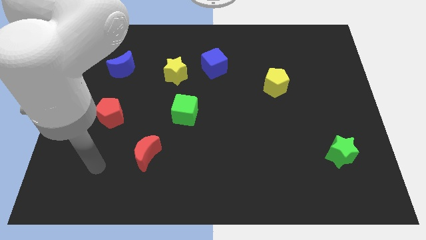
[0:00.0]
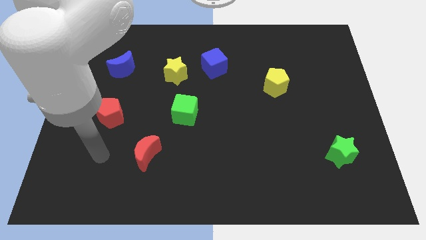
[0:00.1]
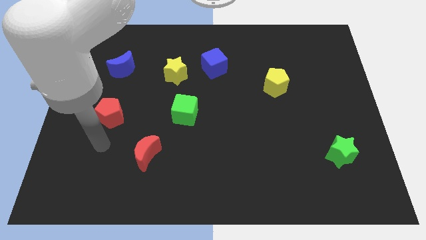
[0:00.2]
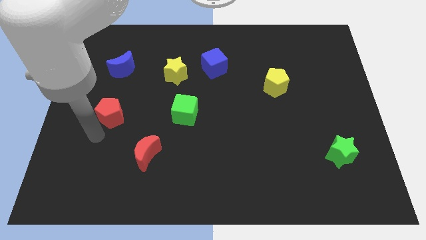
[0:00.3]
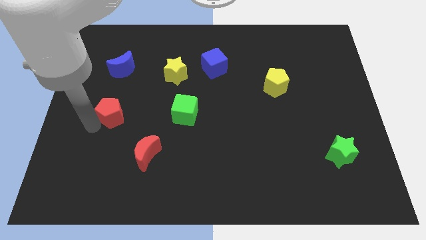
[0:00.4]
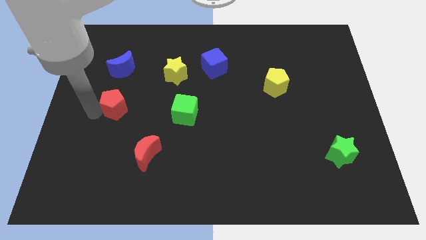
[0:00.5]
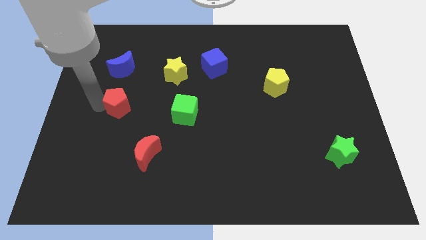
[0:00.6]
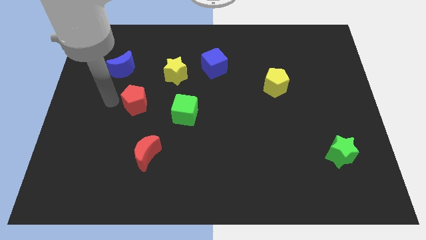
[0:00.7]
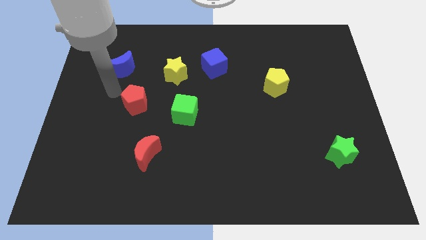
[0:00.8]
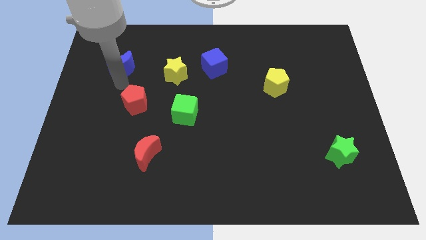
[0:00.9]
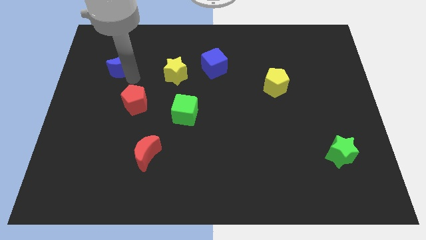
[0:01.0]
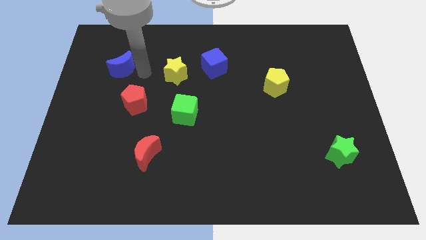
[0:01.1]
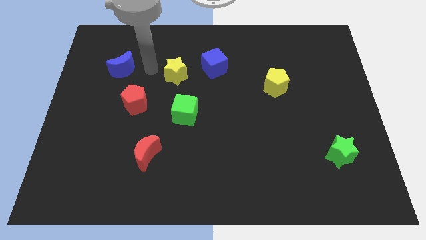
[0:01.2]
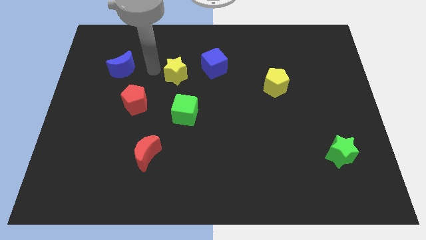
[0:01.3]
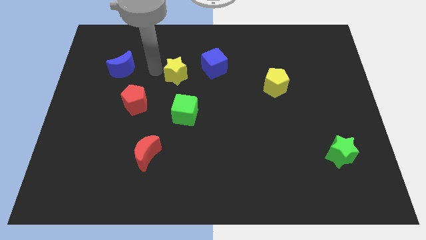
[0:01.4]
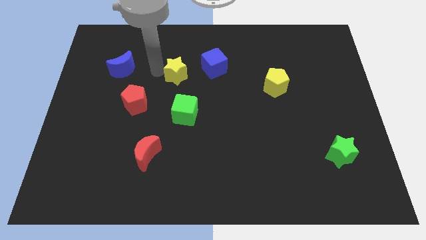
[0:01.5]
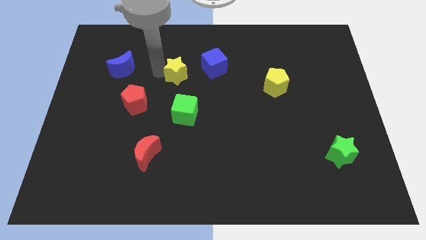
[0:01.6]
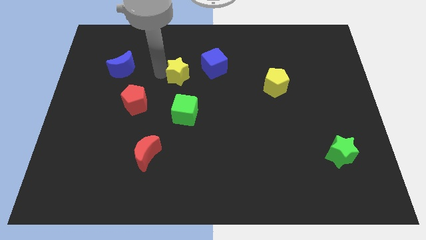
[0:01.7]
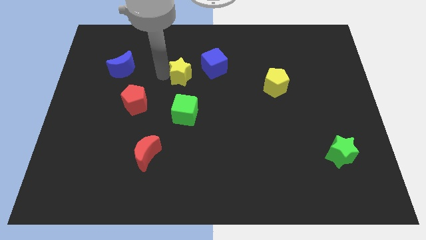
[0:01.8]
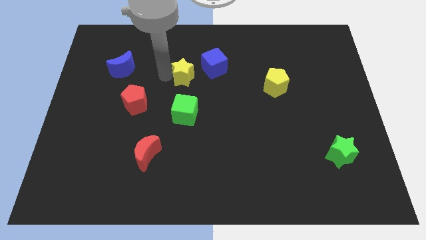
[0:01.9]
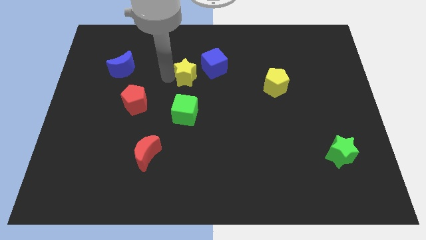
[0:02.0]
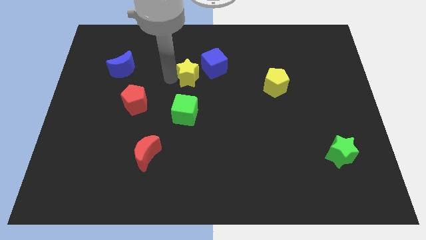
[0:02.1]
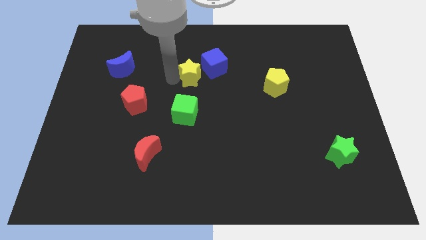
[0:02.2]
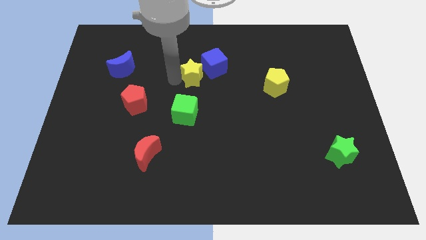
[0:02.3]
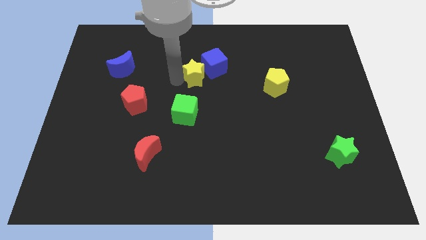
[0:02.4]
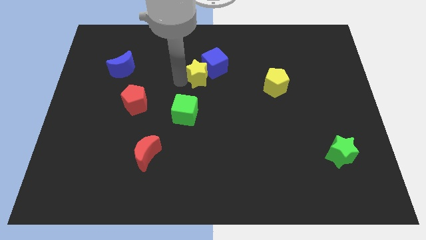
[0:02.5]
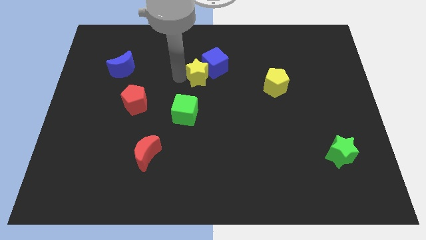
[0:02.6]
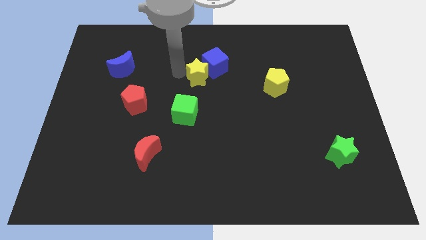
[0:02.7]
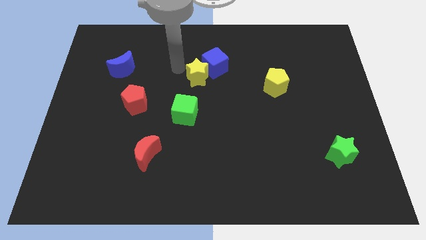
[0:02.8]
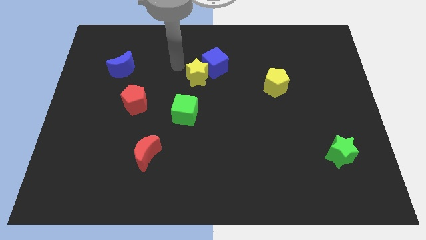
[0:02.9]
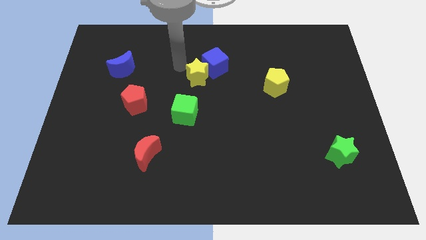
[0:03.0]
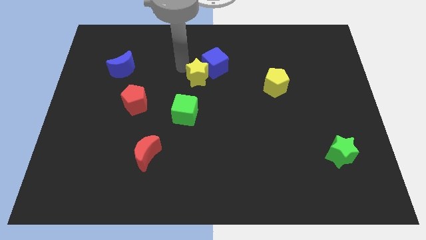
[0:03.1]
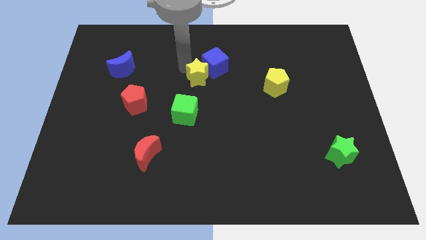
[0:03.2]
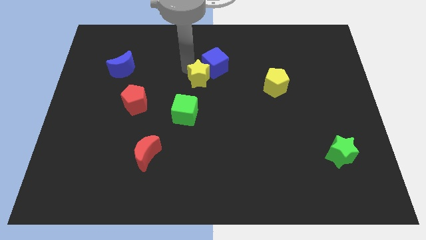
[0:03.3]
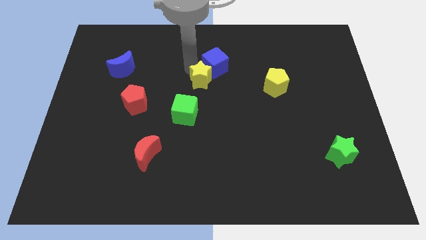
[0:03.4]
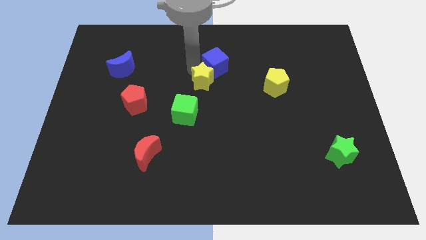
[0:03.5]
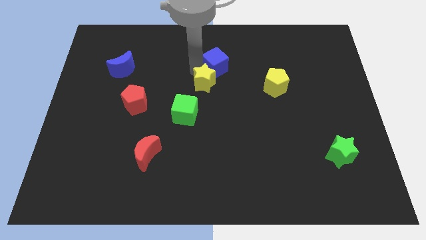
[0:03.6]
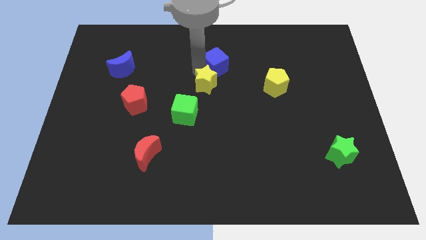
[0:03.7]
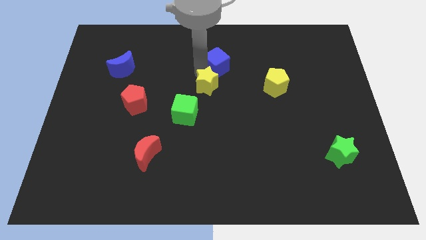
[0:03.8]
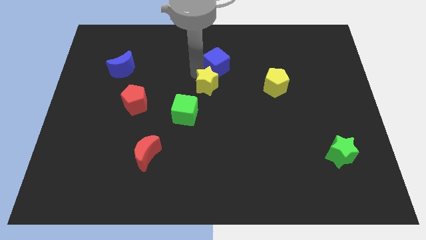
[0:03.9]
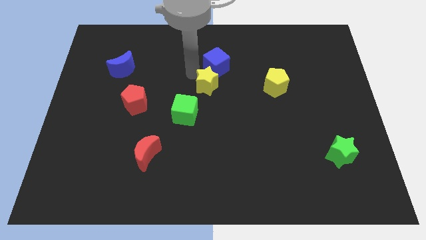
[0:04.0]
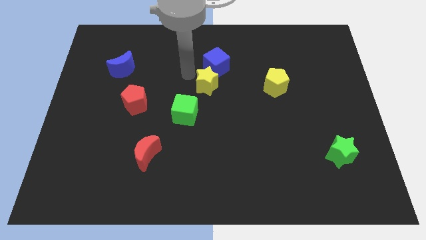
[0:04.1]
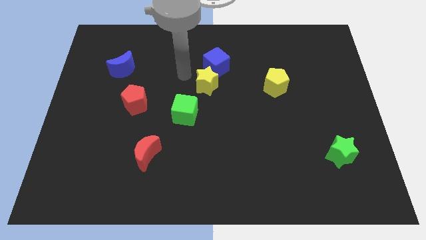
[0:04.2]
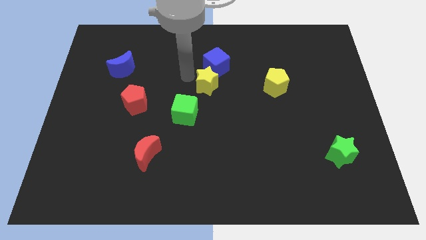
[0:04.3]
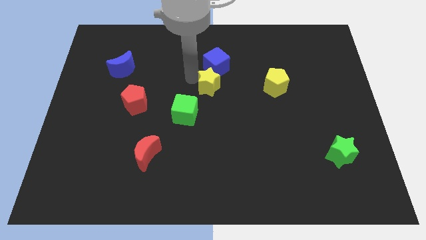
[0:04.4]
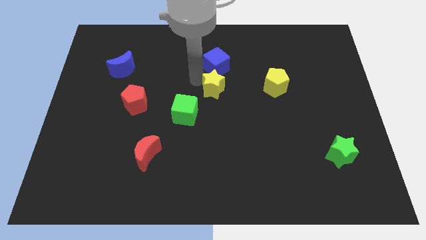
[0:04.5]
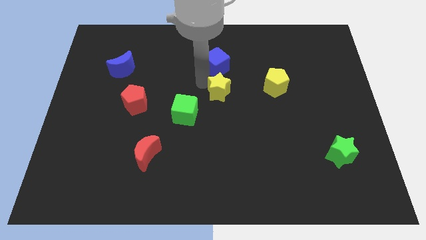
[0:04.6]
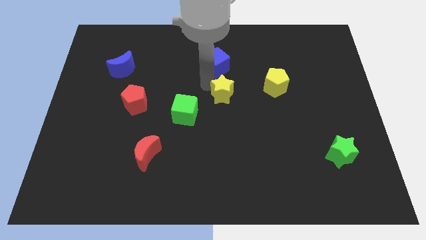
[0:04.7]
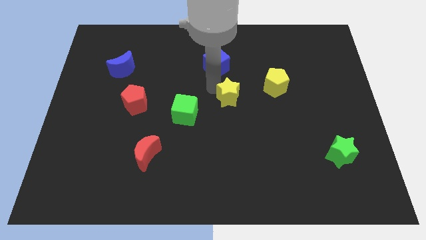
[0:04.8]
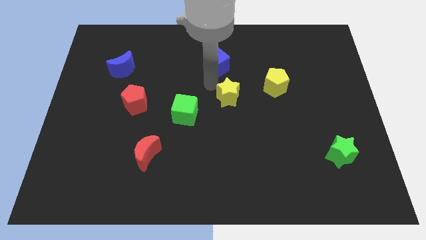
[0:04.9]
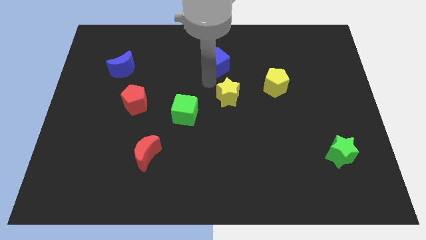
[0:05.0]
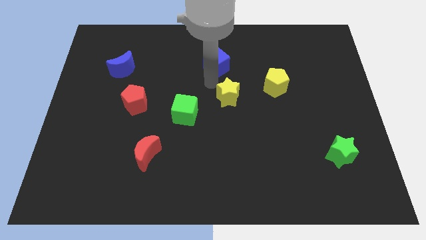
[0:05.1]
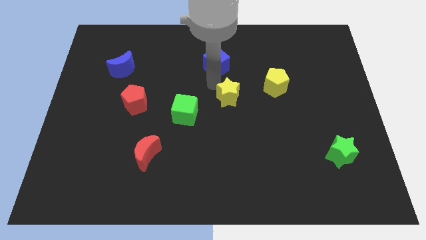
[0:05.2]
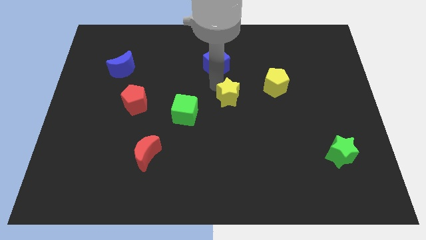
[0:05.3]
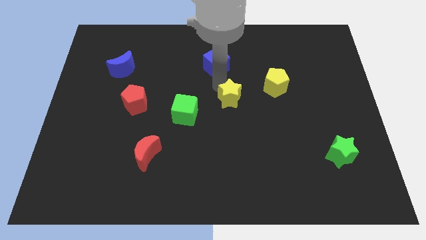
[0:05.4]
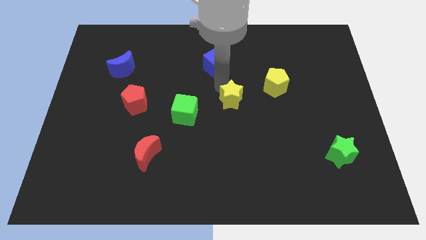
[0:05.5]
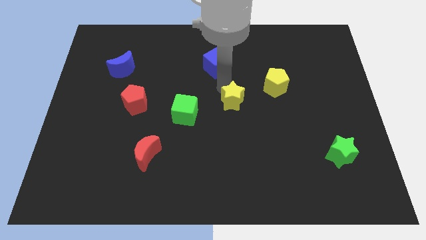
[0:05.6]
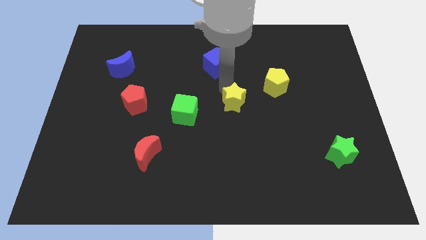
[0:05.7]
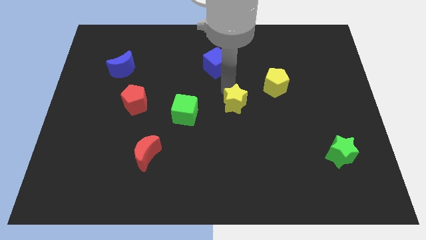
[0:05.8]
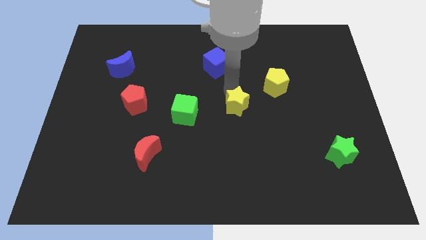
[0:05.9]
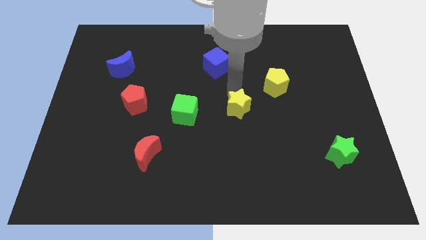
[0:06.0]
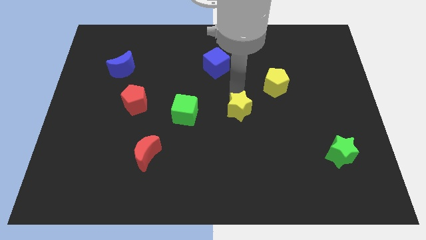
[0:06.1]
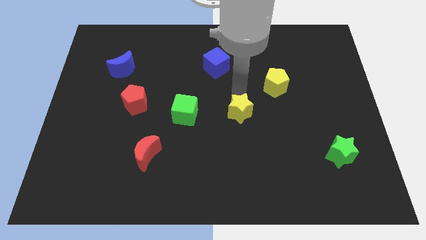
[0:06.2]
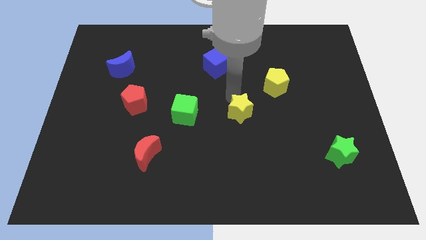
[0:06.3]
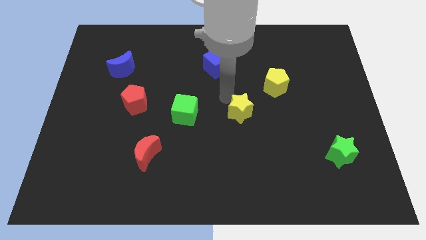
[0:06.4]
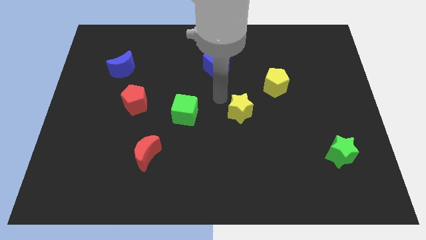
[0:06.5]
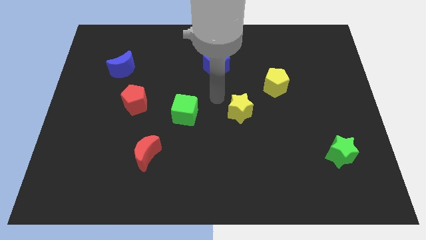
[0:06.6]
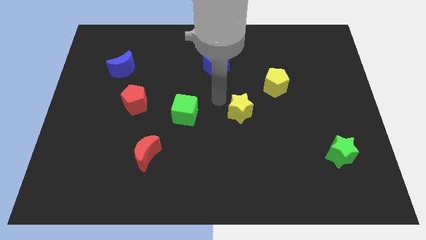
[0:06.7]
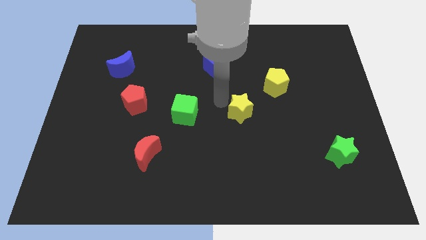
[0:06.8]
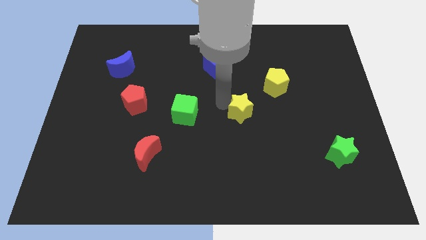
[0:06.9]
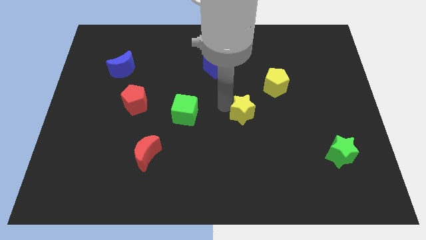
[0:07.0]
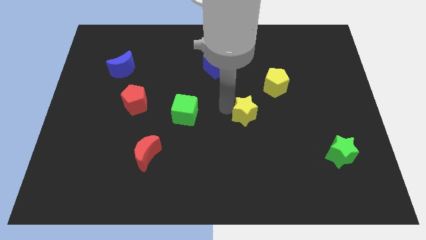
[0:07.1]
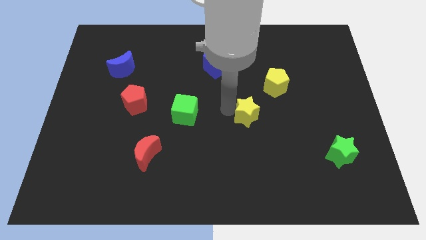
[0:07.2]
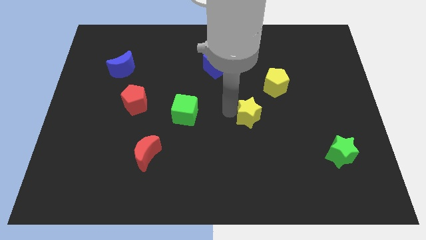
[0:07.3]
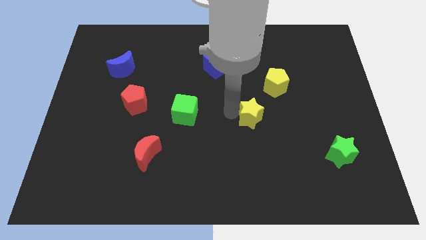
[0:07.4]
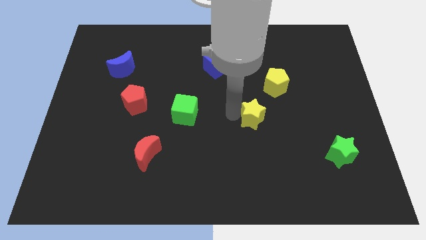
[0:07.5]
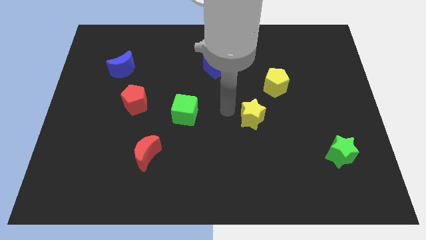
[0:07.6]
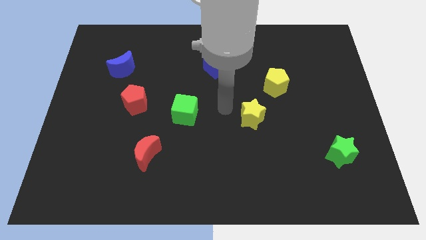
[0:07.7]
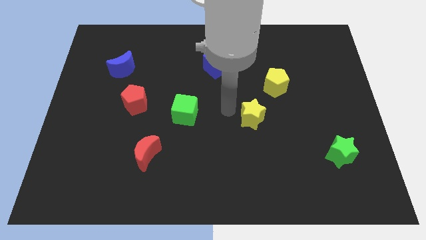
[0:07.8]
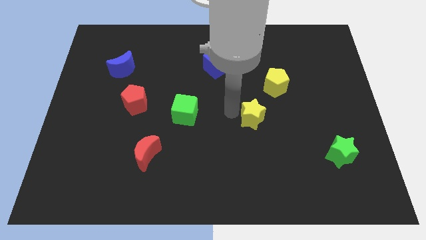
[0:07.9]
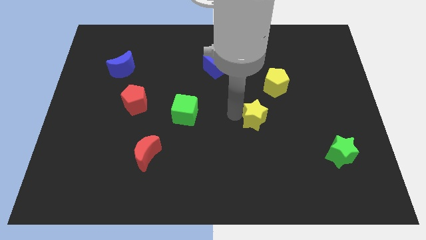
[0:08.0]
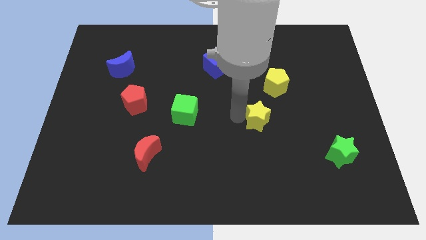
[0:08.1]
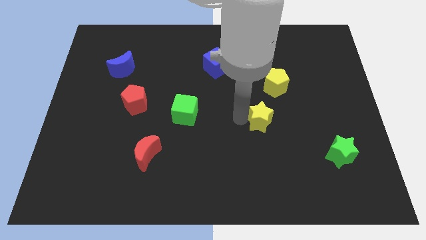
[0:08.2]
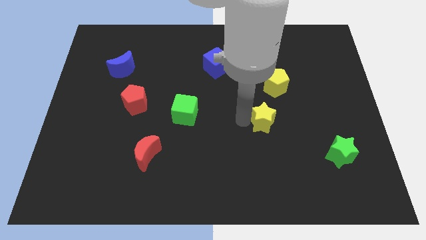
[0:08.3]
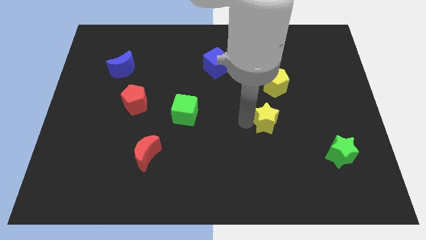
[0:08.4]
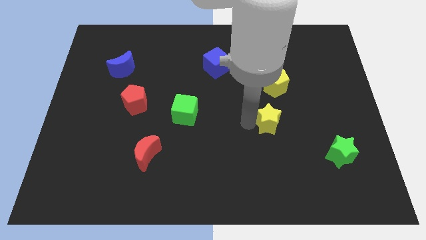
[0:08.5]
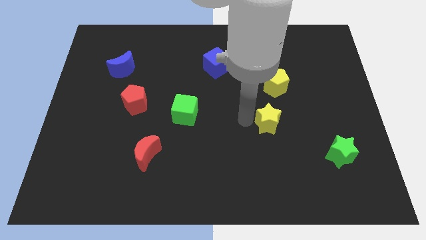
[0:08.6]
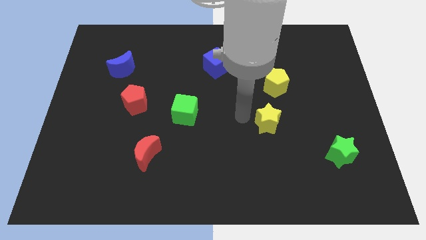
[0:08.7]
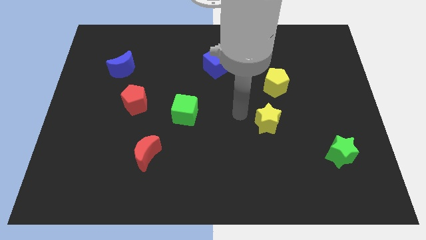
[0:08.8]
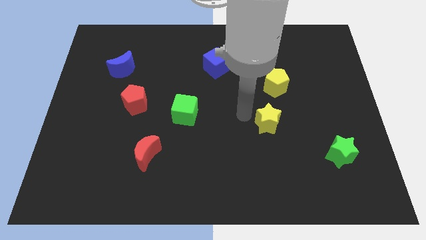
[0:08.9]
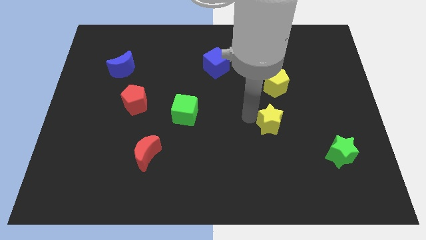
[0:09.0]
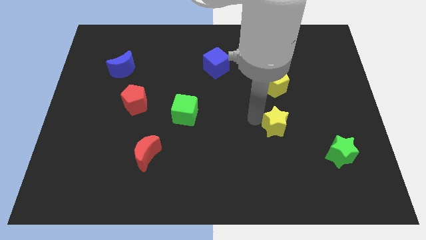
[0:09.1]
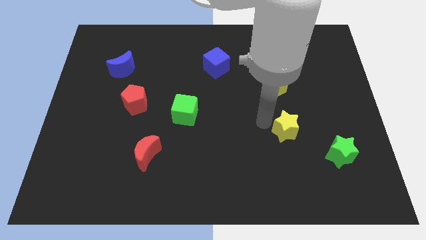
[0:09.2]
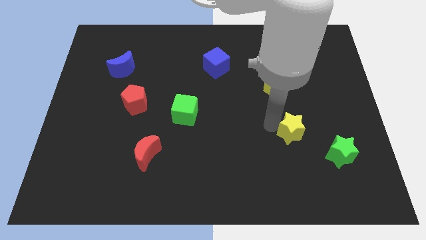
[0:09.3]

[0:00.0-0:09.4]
put the yellow star diagonally up and to the left of the green star
